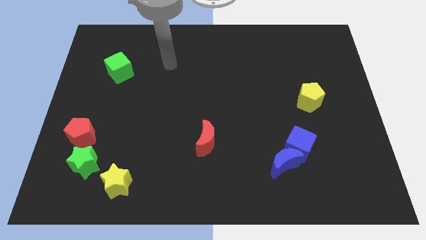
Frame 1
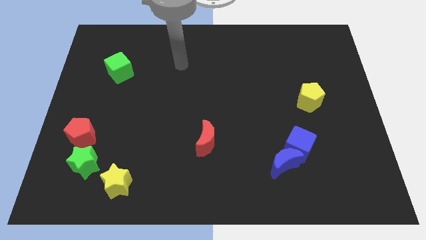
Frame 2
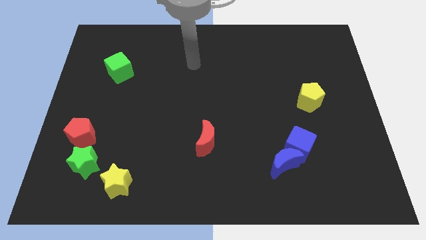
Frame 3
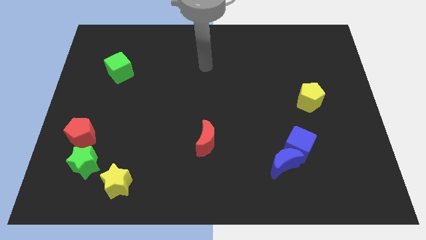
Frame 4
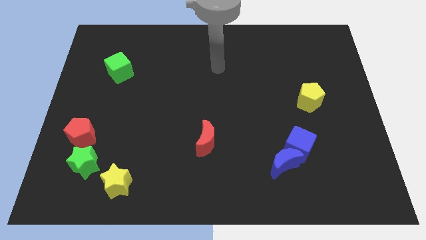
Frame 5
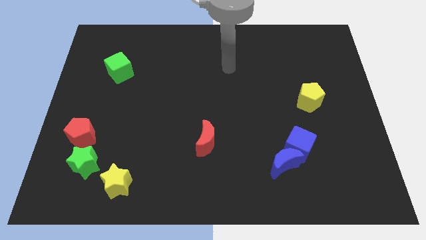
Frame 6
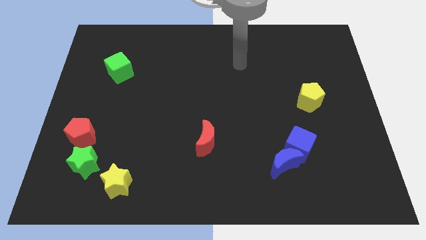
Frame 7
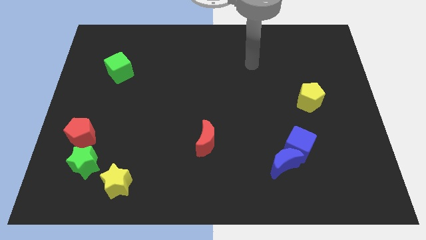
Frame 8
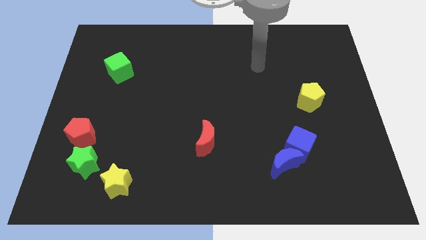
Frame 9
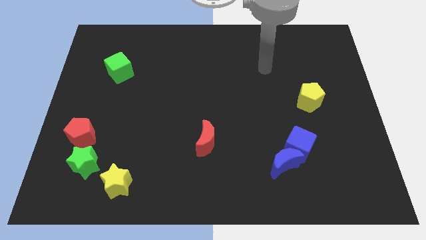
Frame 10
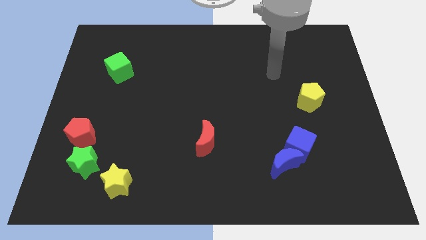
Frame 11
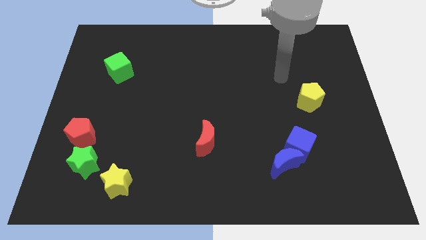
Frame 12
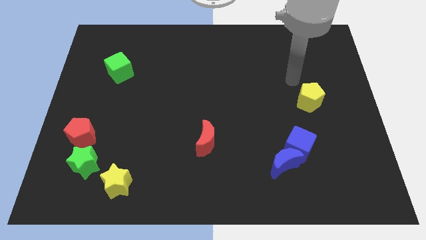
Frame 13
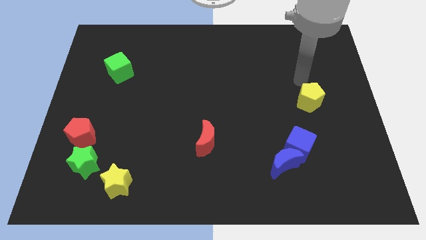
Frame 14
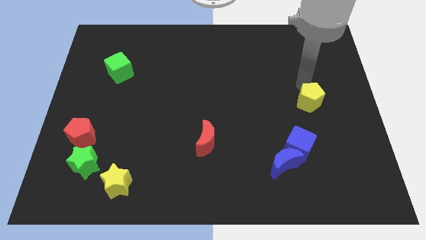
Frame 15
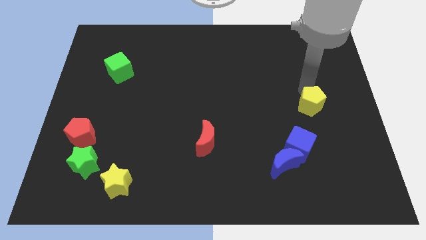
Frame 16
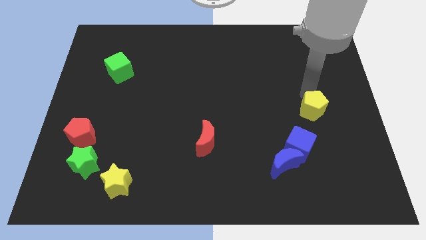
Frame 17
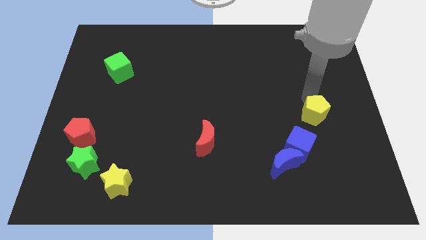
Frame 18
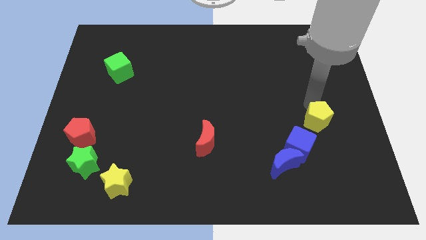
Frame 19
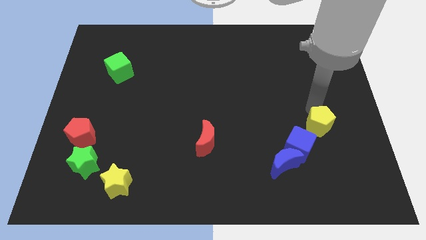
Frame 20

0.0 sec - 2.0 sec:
push the yellow pentagon a little bit downwards

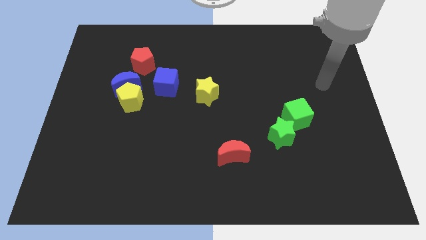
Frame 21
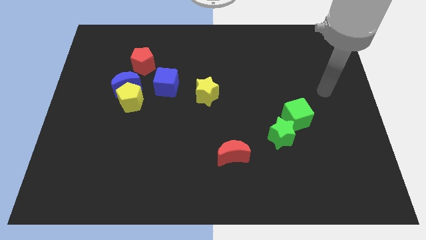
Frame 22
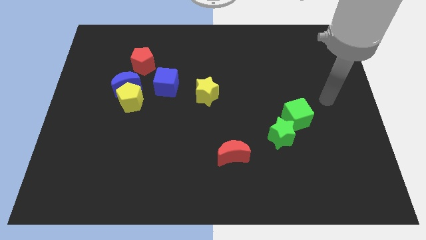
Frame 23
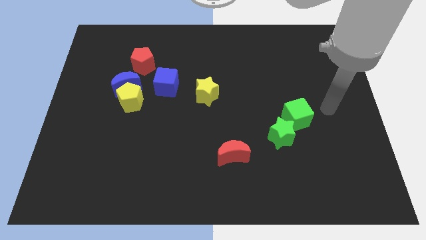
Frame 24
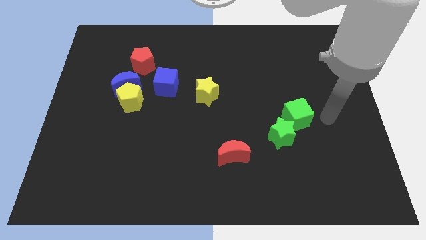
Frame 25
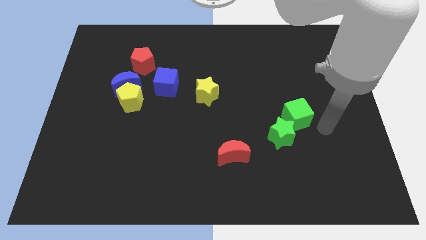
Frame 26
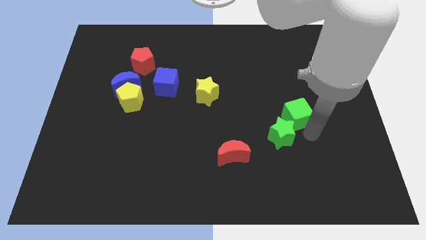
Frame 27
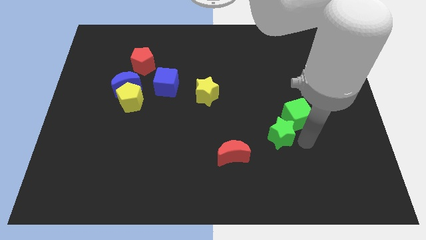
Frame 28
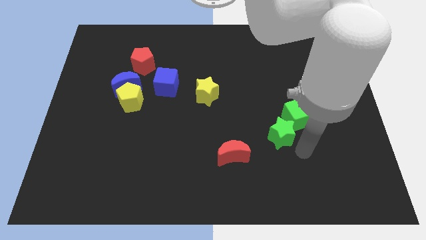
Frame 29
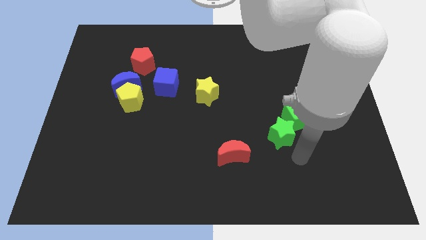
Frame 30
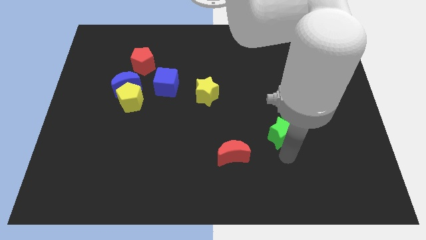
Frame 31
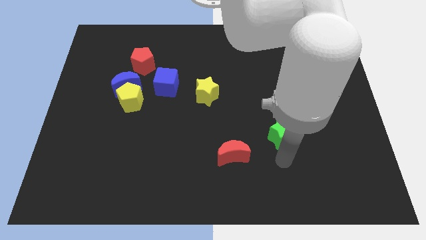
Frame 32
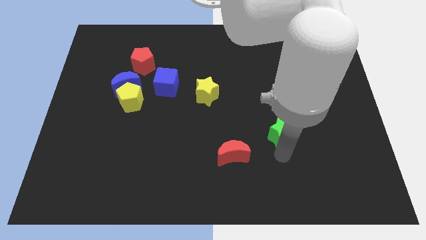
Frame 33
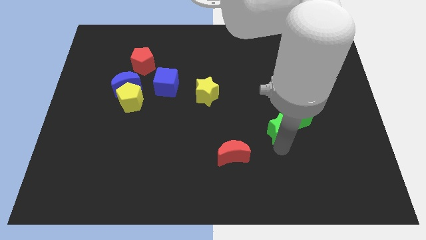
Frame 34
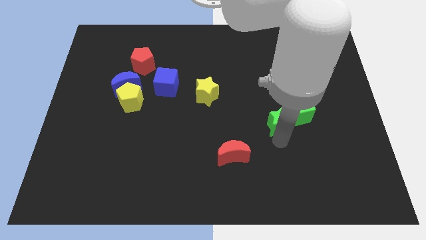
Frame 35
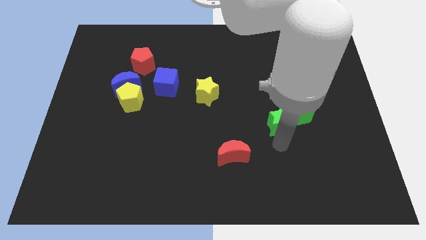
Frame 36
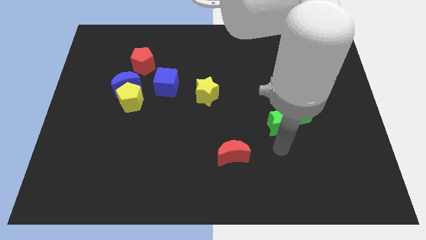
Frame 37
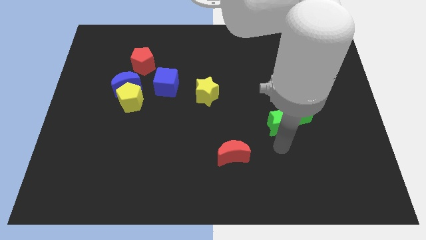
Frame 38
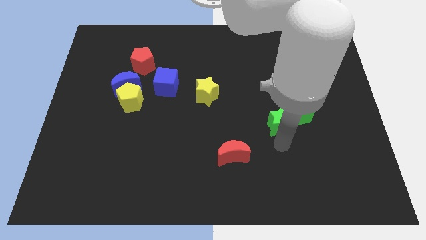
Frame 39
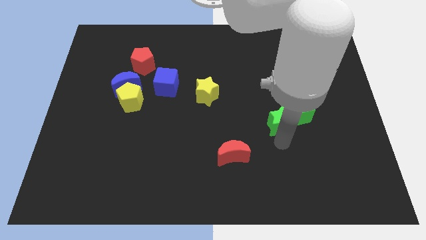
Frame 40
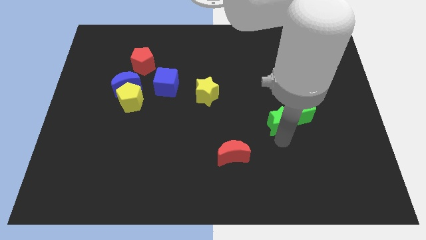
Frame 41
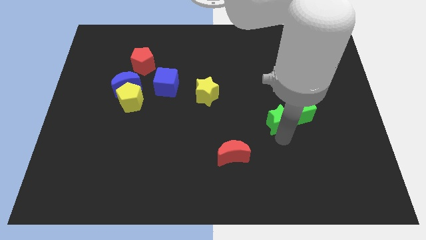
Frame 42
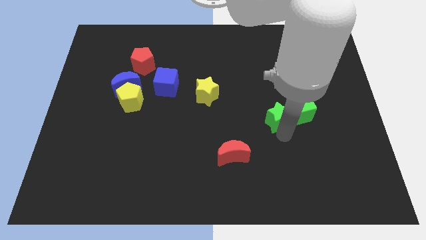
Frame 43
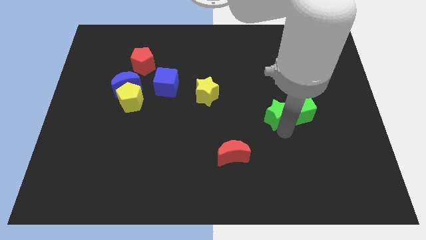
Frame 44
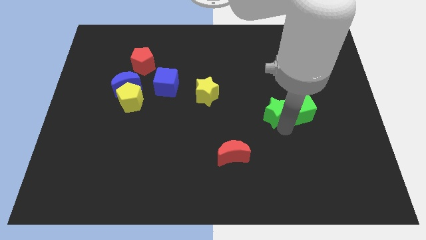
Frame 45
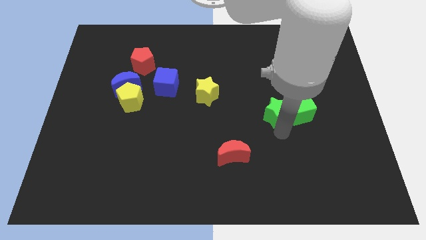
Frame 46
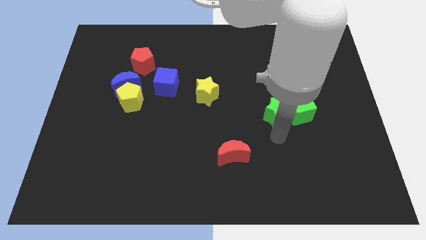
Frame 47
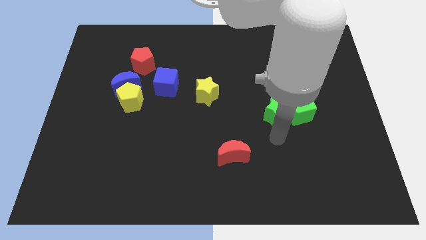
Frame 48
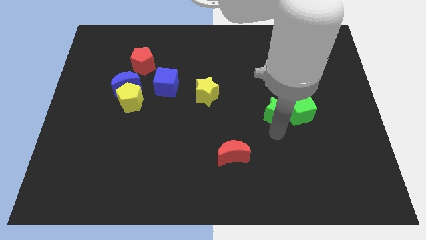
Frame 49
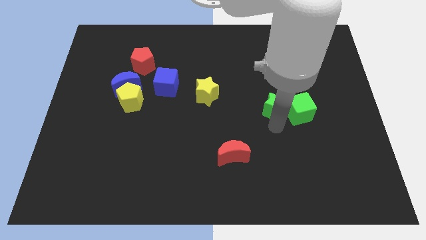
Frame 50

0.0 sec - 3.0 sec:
slide the green star up a little bit

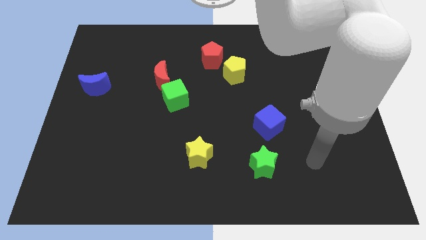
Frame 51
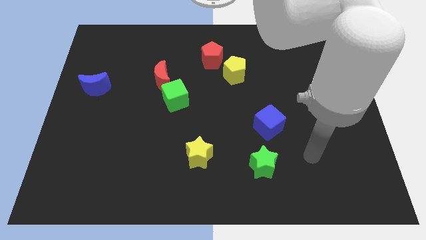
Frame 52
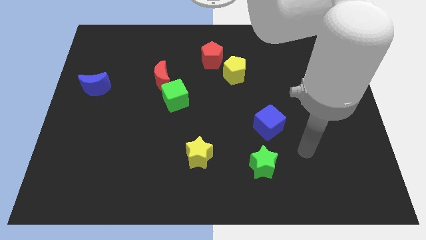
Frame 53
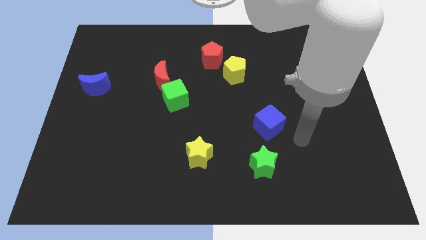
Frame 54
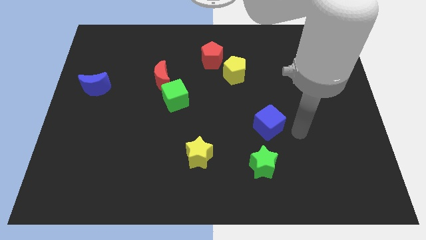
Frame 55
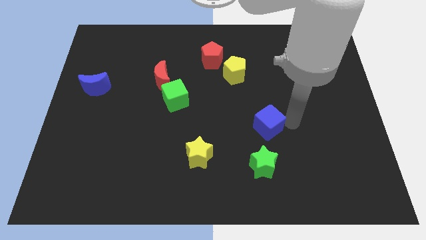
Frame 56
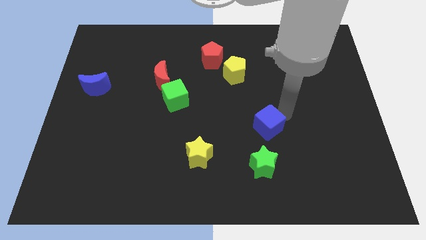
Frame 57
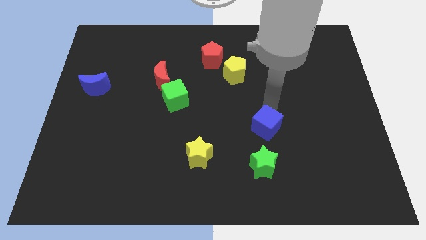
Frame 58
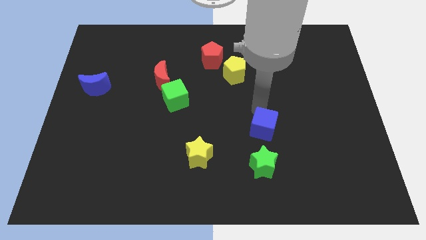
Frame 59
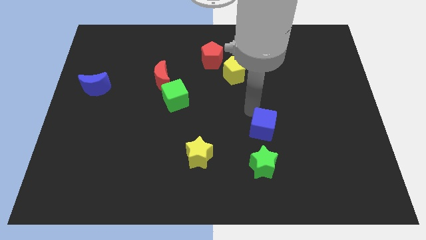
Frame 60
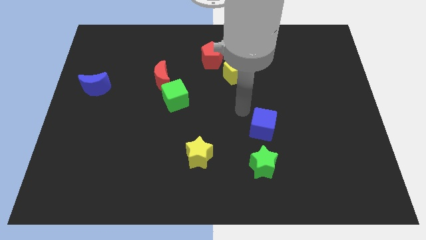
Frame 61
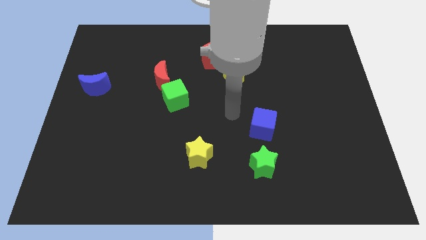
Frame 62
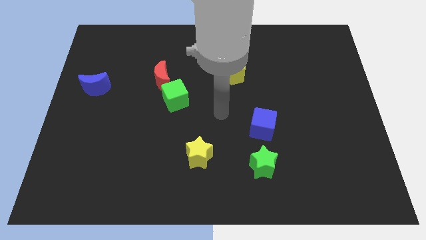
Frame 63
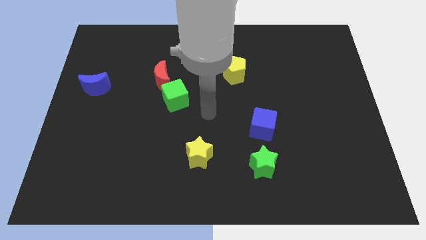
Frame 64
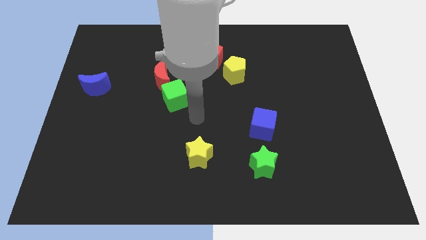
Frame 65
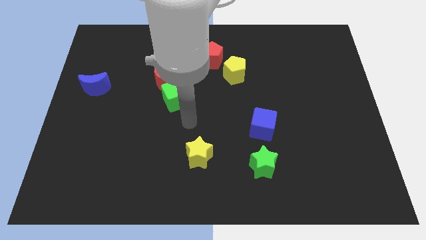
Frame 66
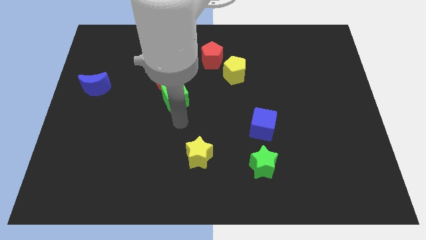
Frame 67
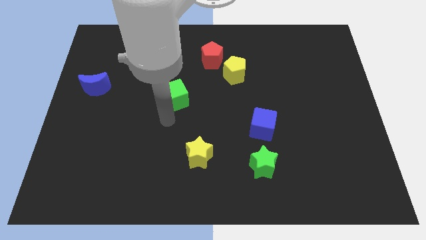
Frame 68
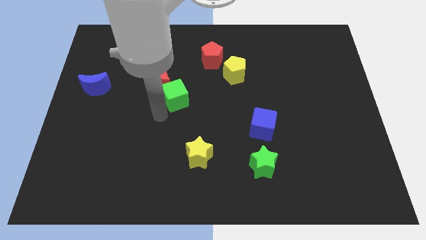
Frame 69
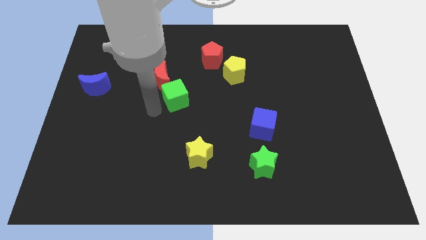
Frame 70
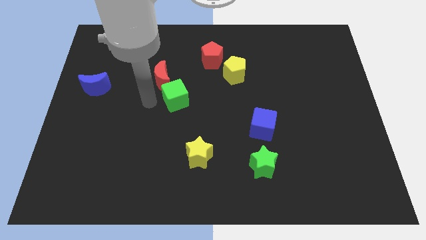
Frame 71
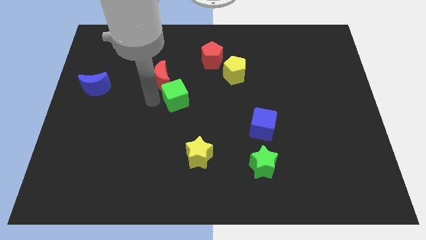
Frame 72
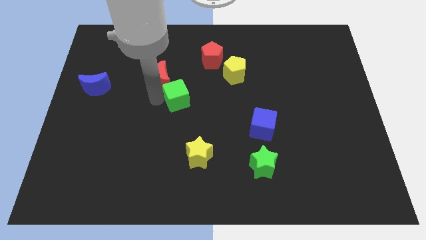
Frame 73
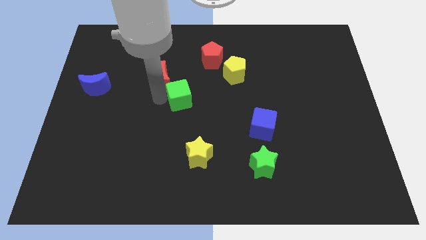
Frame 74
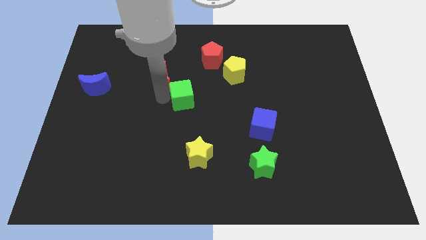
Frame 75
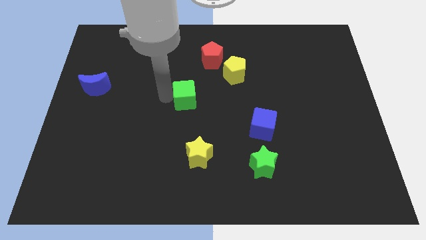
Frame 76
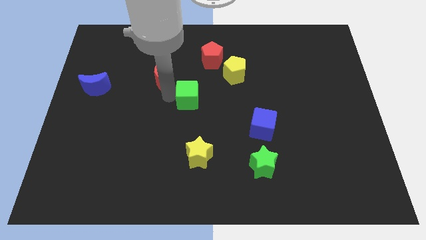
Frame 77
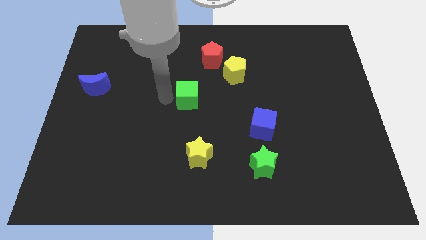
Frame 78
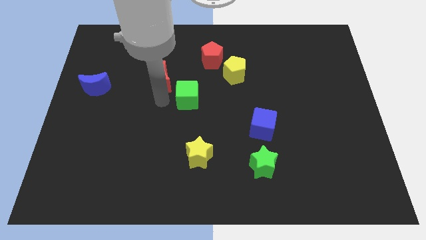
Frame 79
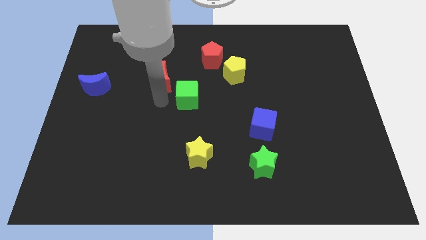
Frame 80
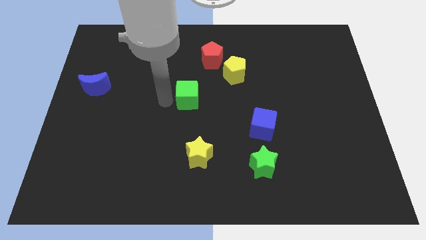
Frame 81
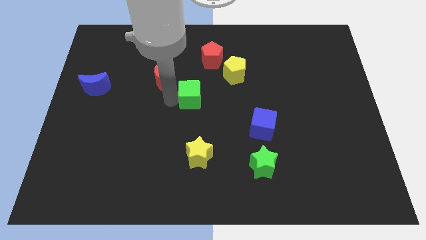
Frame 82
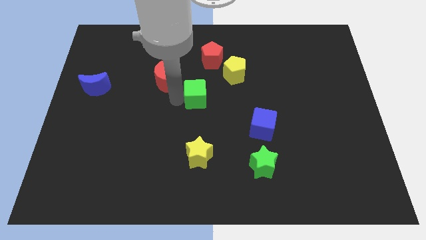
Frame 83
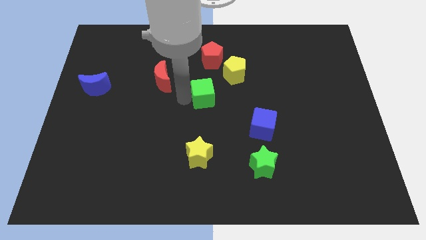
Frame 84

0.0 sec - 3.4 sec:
slightly move the green cube right
